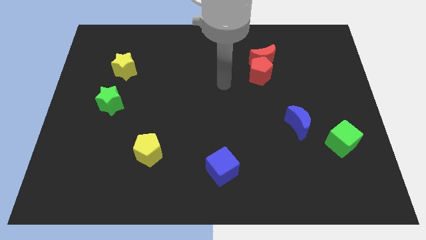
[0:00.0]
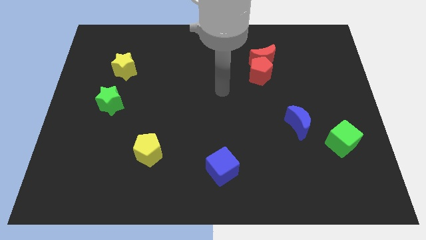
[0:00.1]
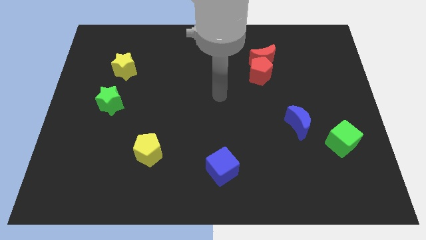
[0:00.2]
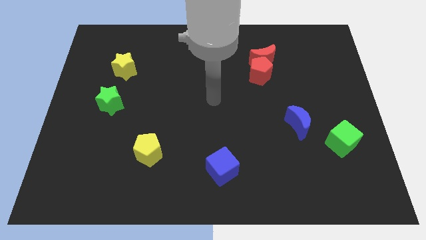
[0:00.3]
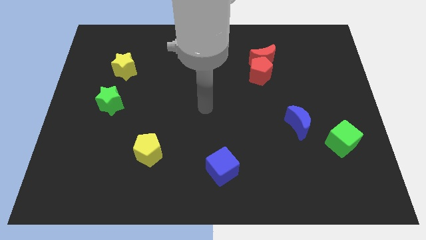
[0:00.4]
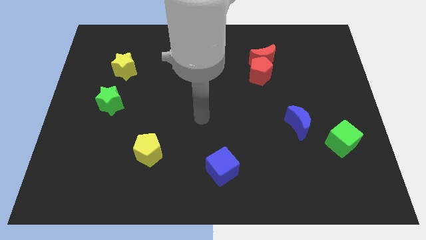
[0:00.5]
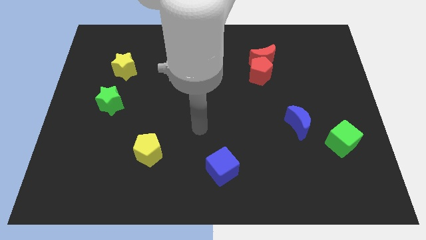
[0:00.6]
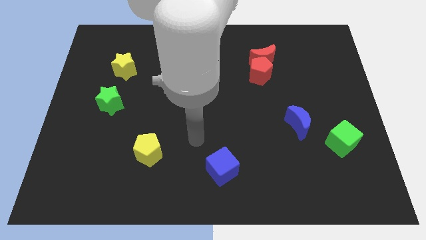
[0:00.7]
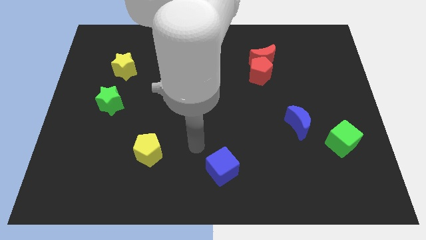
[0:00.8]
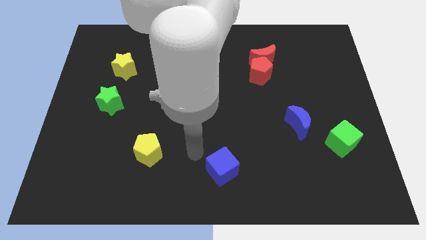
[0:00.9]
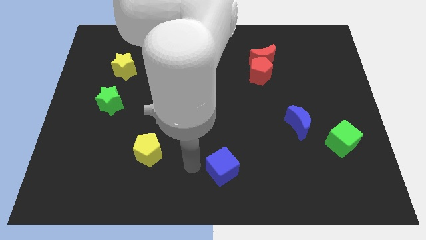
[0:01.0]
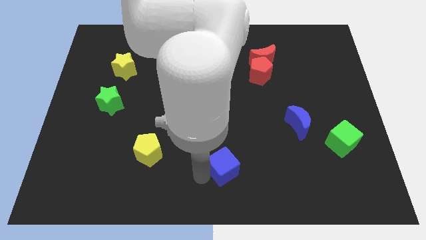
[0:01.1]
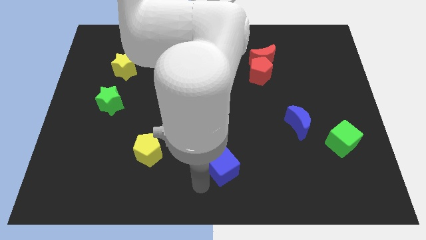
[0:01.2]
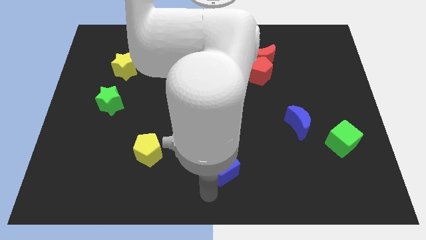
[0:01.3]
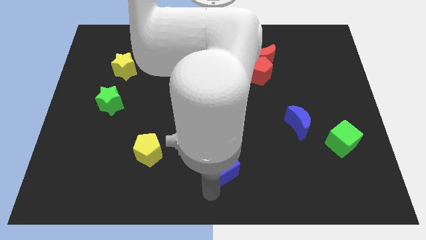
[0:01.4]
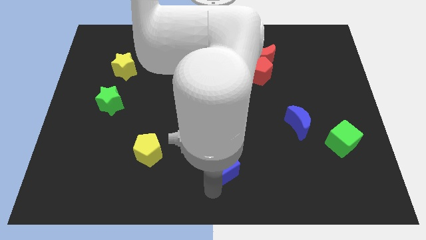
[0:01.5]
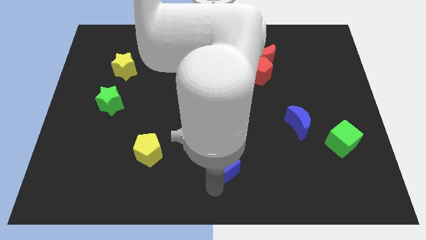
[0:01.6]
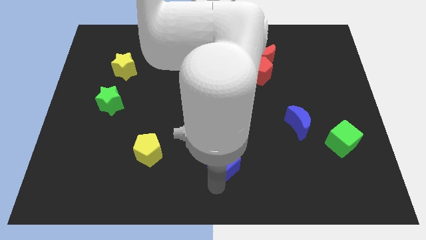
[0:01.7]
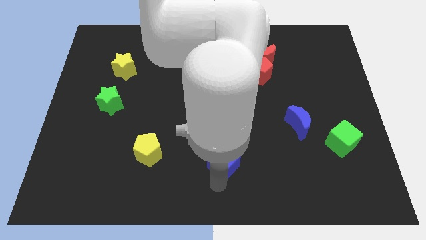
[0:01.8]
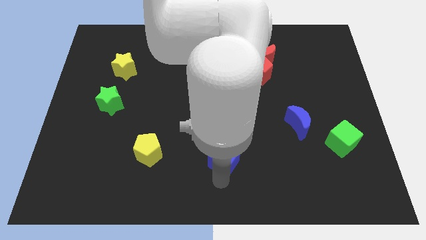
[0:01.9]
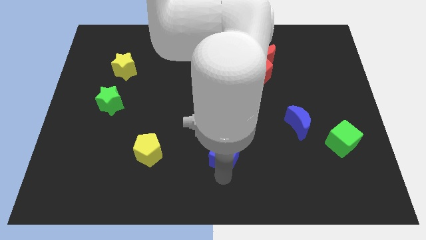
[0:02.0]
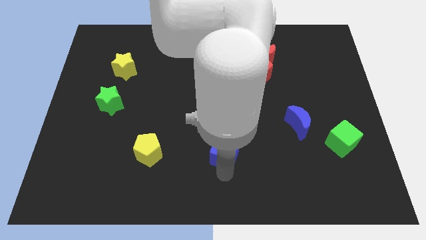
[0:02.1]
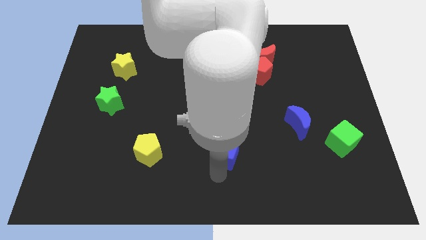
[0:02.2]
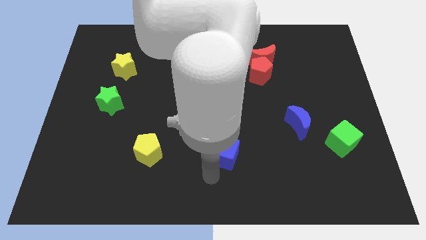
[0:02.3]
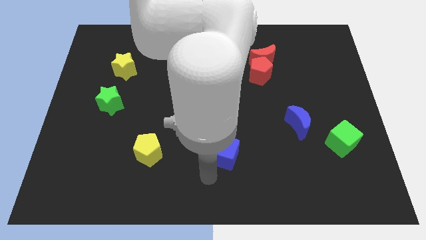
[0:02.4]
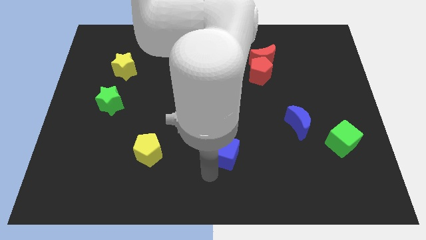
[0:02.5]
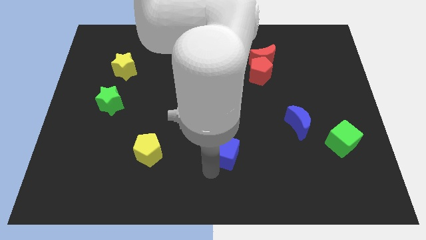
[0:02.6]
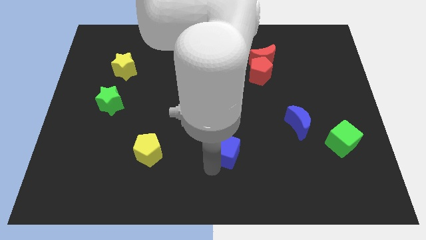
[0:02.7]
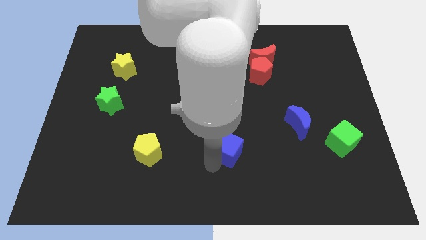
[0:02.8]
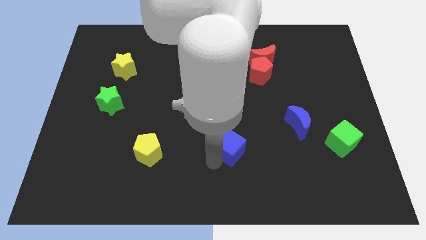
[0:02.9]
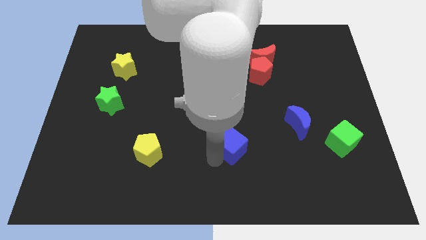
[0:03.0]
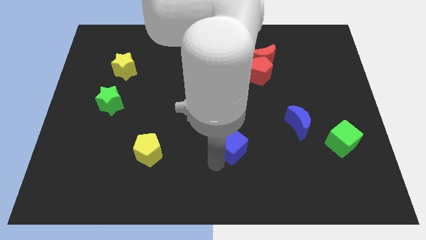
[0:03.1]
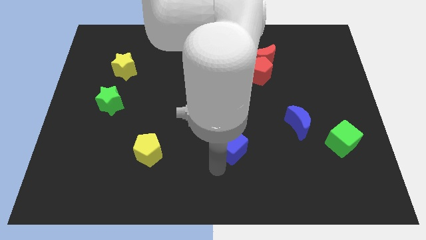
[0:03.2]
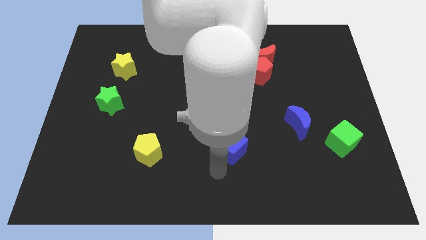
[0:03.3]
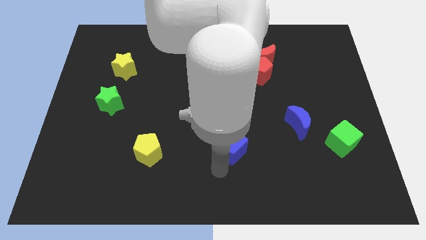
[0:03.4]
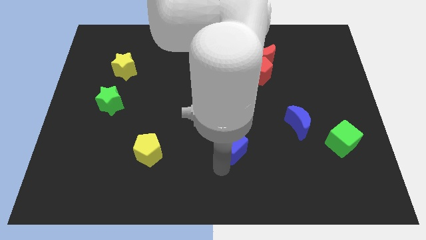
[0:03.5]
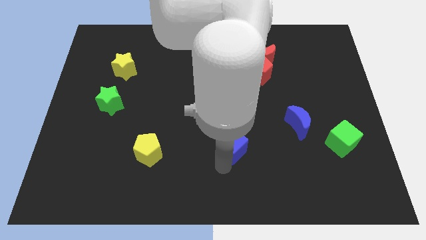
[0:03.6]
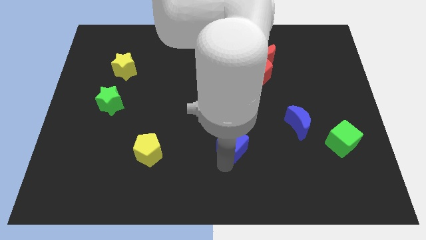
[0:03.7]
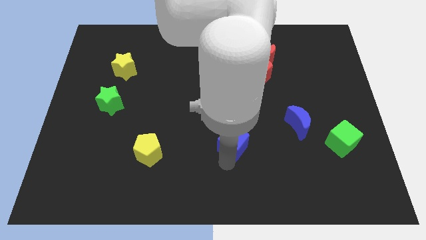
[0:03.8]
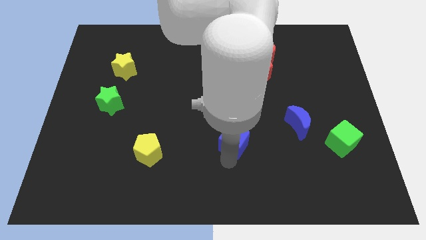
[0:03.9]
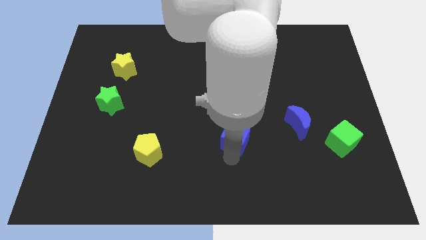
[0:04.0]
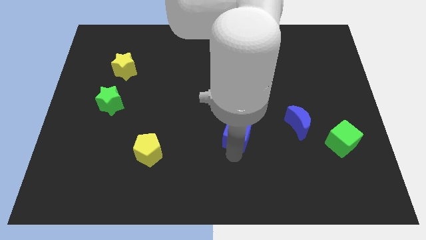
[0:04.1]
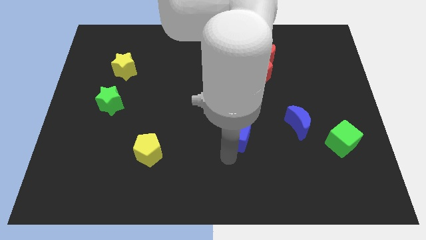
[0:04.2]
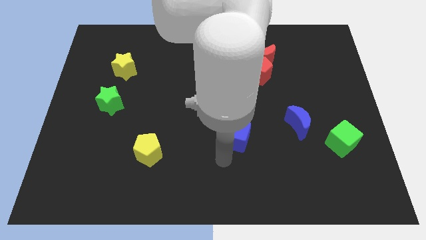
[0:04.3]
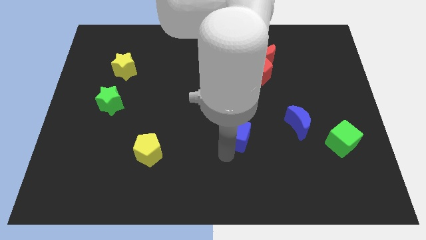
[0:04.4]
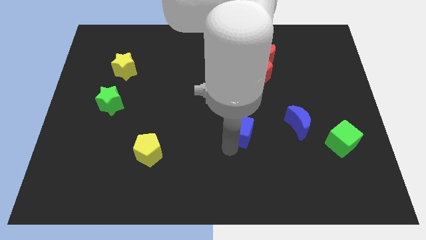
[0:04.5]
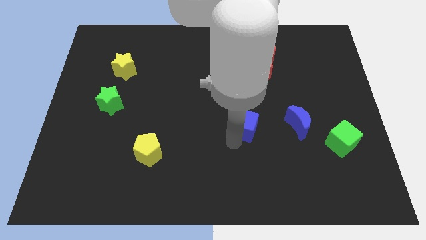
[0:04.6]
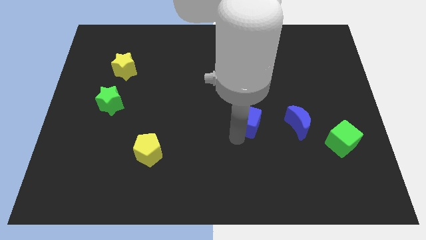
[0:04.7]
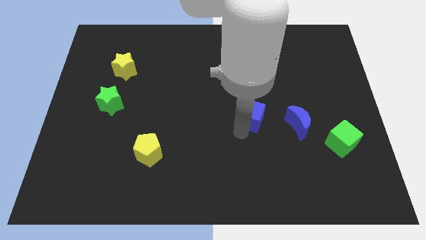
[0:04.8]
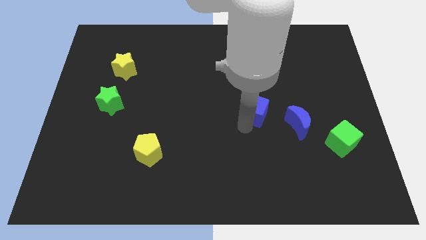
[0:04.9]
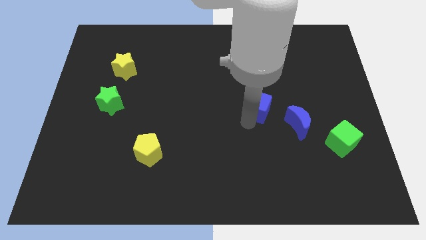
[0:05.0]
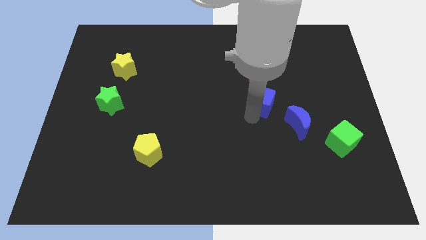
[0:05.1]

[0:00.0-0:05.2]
put the blue cube to the bottom of the red moon

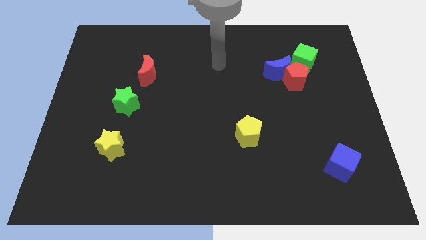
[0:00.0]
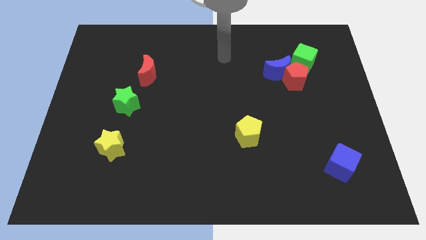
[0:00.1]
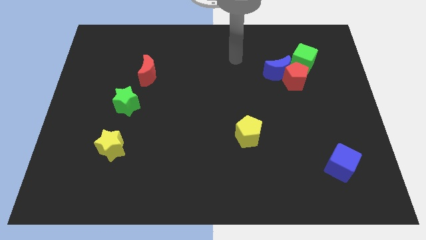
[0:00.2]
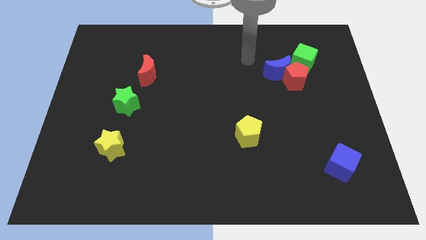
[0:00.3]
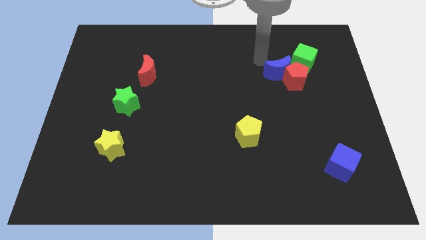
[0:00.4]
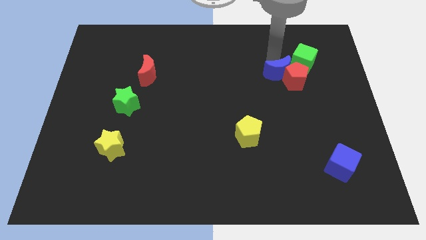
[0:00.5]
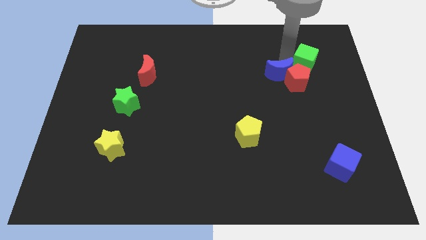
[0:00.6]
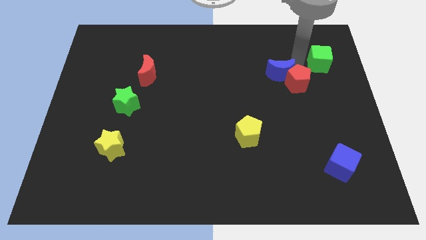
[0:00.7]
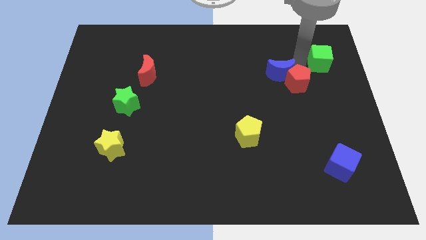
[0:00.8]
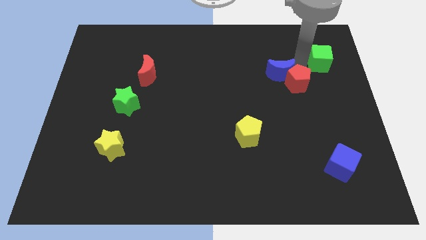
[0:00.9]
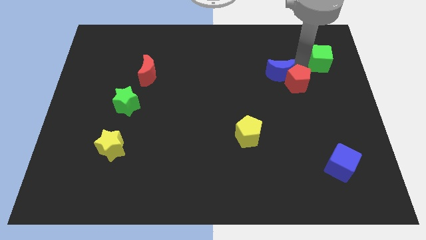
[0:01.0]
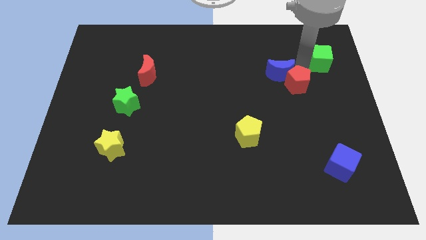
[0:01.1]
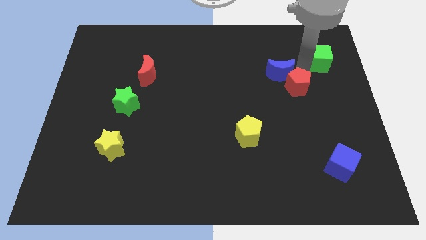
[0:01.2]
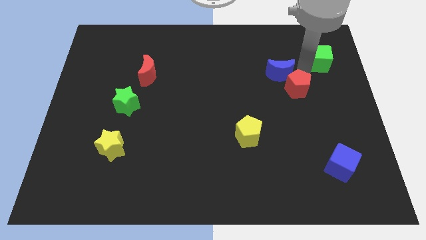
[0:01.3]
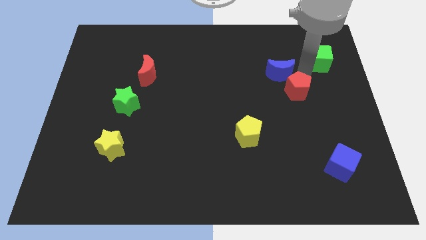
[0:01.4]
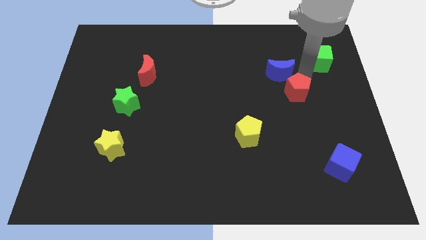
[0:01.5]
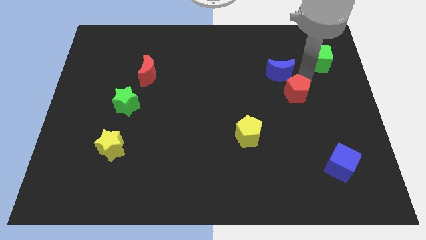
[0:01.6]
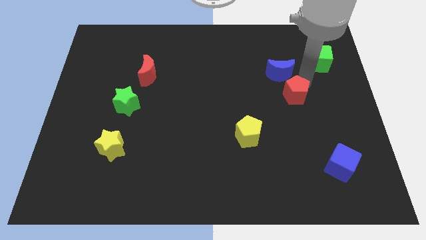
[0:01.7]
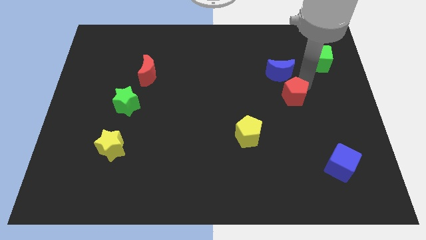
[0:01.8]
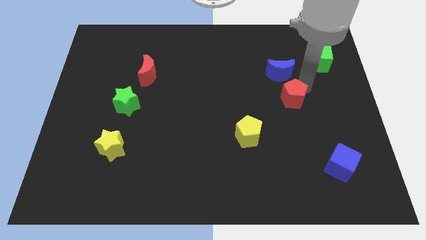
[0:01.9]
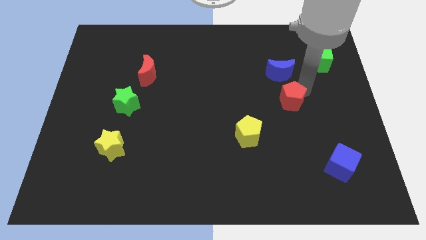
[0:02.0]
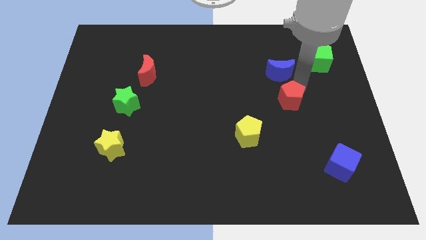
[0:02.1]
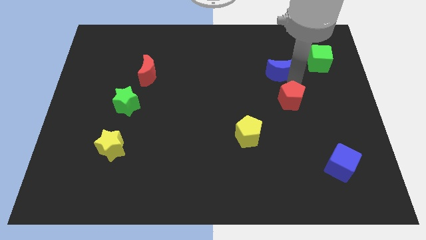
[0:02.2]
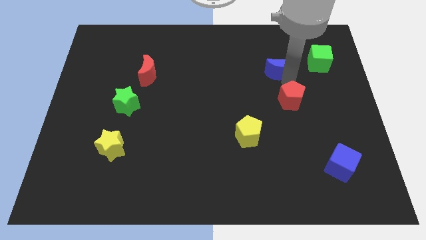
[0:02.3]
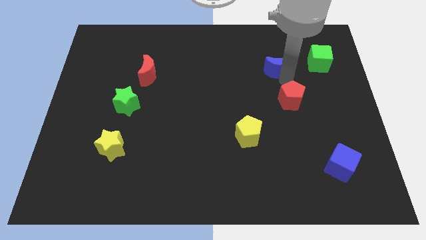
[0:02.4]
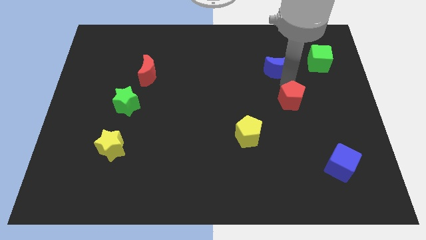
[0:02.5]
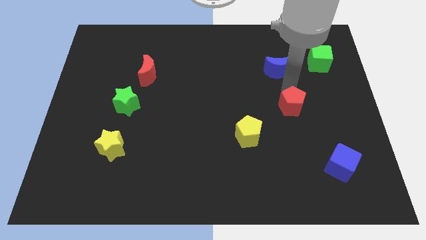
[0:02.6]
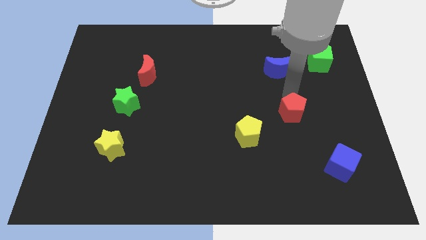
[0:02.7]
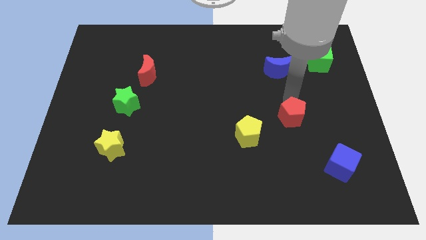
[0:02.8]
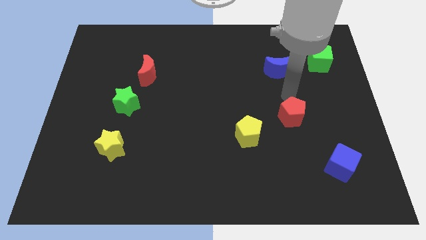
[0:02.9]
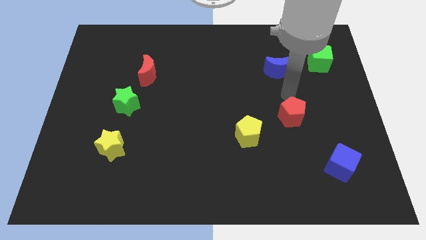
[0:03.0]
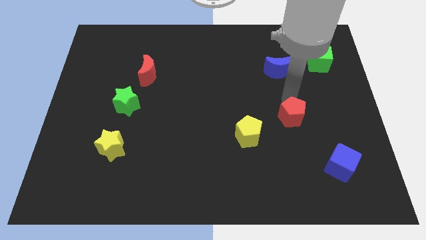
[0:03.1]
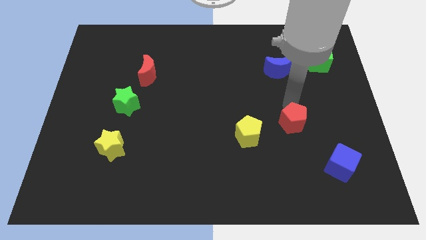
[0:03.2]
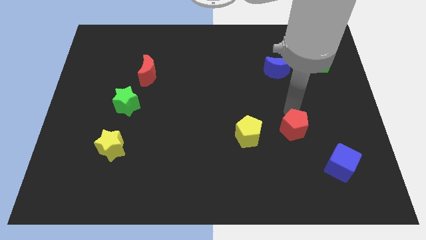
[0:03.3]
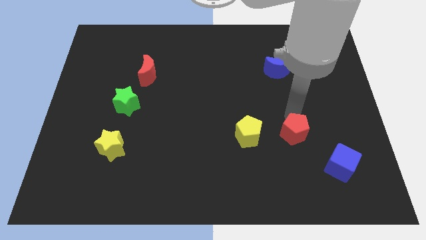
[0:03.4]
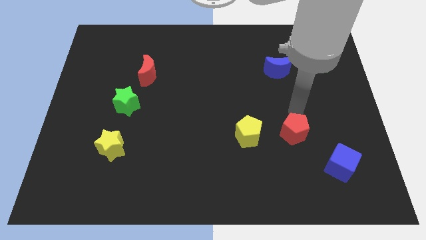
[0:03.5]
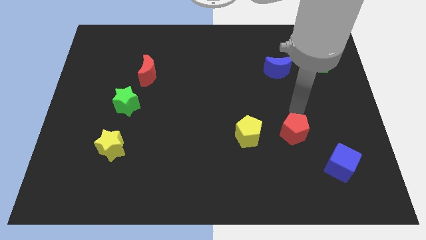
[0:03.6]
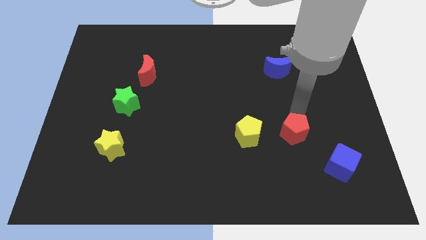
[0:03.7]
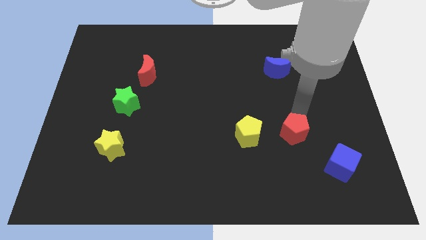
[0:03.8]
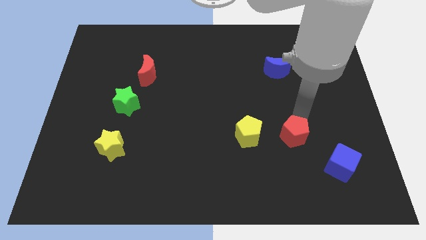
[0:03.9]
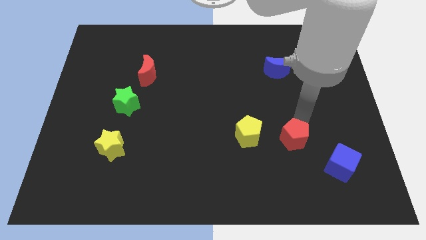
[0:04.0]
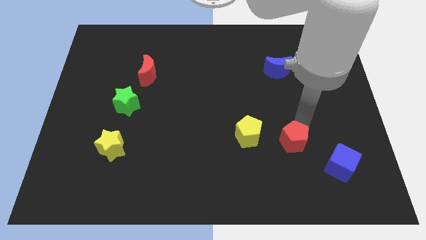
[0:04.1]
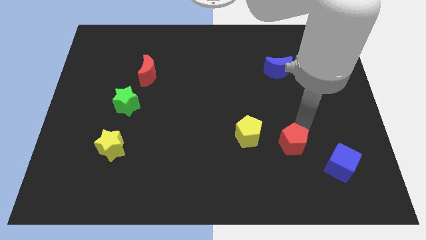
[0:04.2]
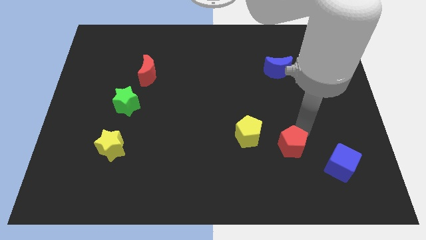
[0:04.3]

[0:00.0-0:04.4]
slide the red pentagon just left of the blue cube
